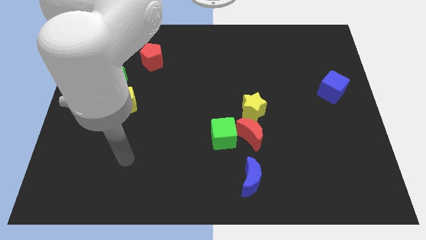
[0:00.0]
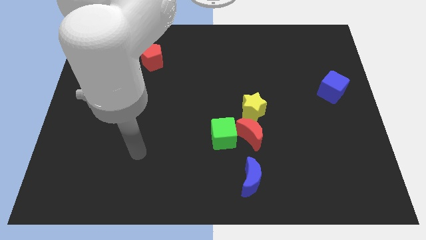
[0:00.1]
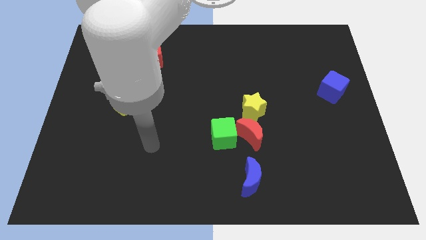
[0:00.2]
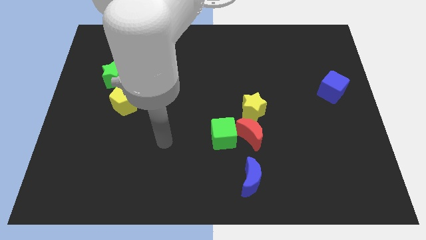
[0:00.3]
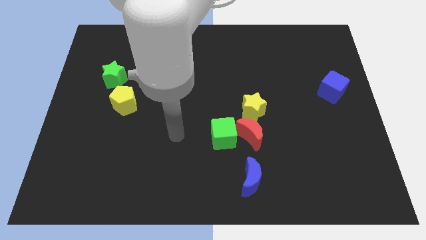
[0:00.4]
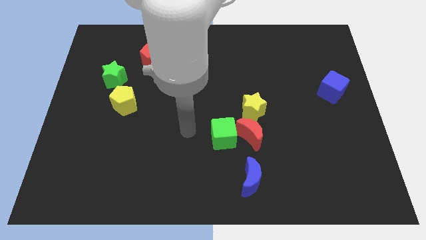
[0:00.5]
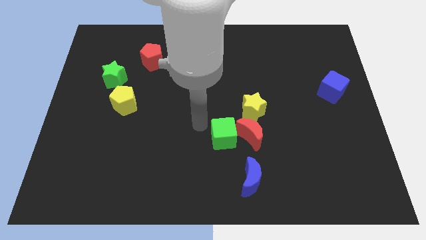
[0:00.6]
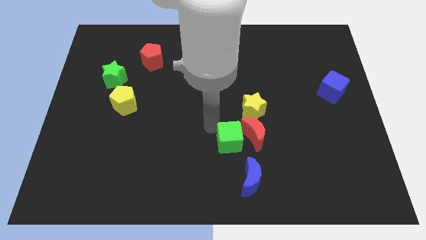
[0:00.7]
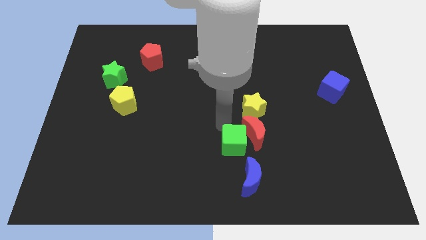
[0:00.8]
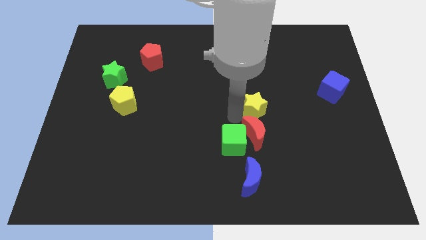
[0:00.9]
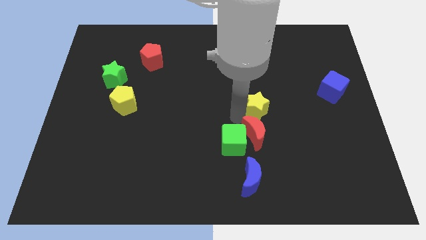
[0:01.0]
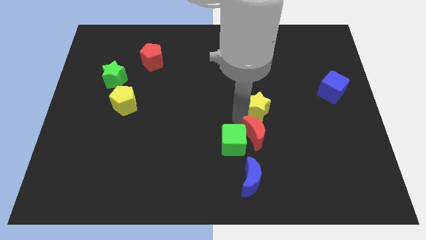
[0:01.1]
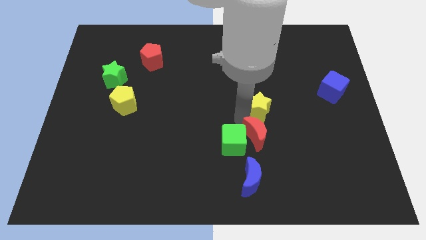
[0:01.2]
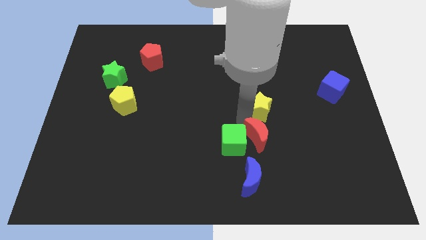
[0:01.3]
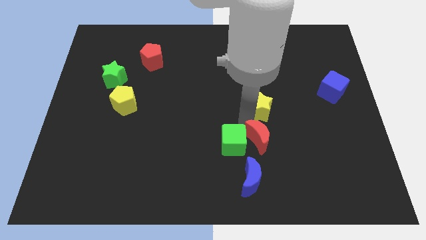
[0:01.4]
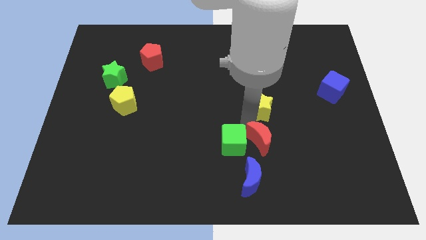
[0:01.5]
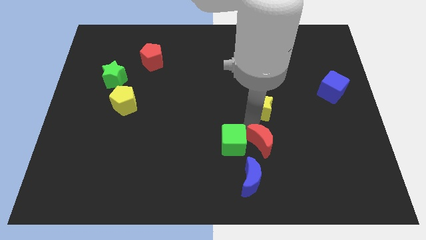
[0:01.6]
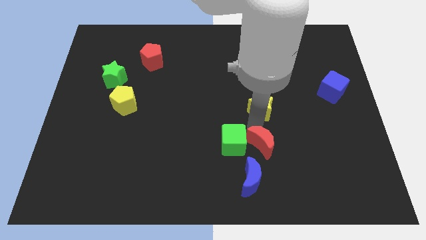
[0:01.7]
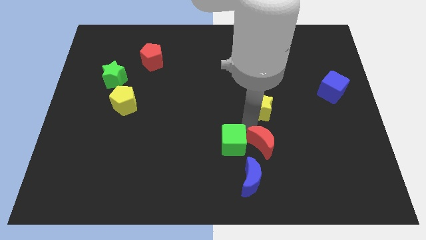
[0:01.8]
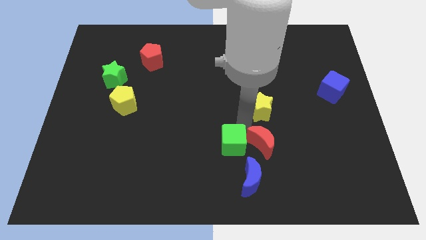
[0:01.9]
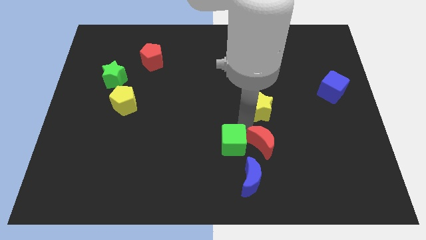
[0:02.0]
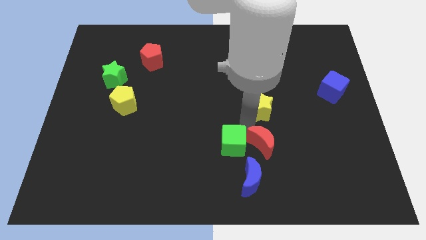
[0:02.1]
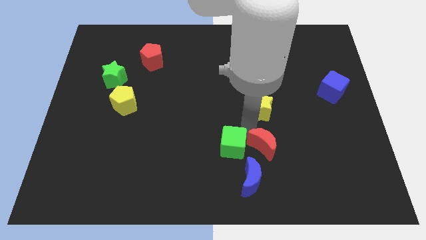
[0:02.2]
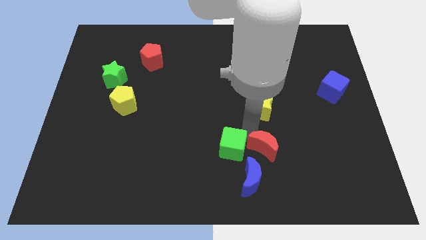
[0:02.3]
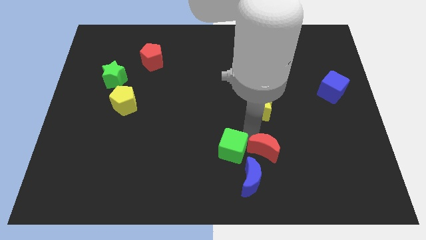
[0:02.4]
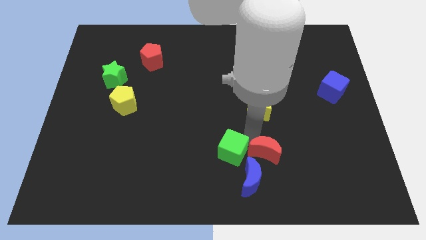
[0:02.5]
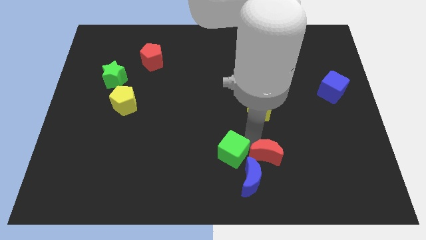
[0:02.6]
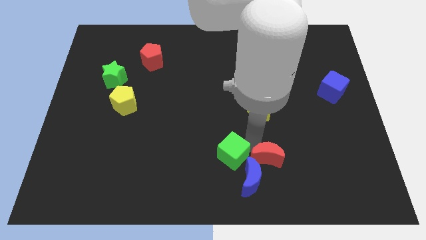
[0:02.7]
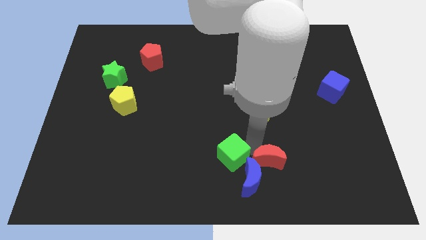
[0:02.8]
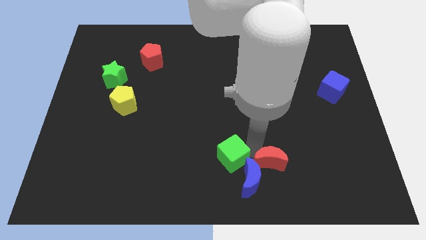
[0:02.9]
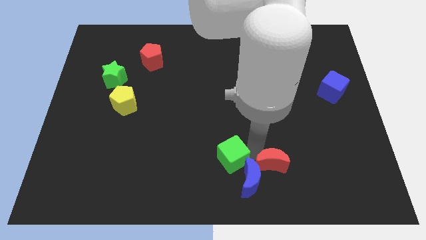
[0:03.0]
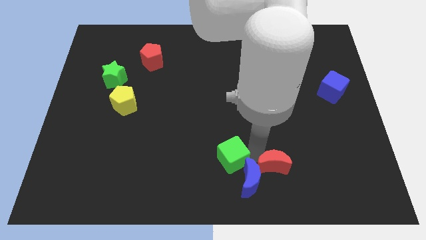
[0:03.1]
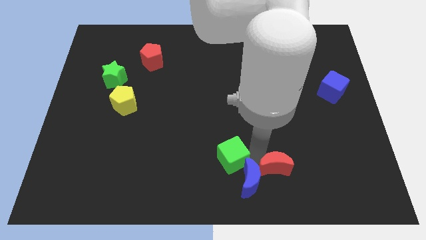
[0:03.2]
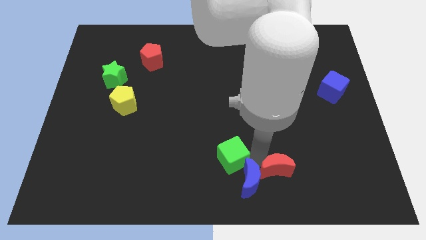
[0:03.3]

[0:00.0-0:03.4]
move the red moon away from the green cube and yellow star

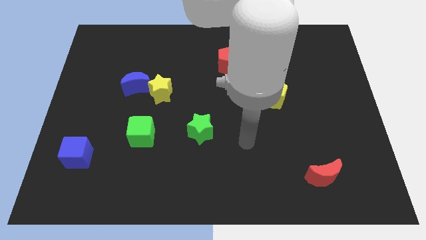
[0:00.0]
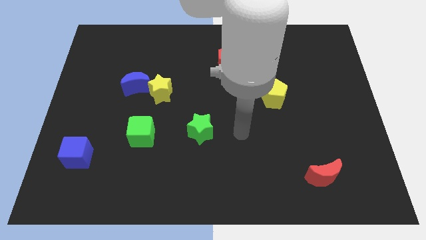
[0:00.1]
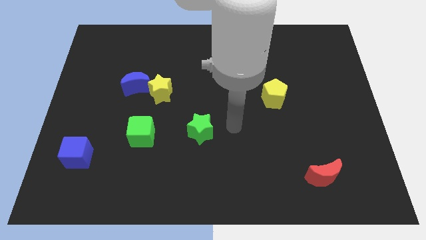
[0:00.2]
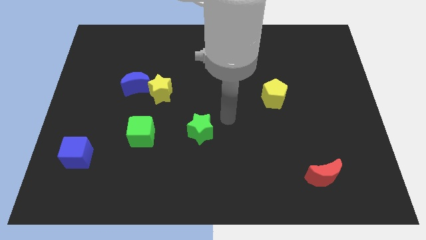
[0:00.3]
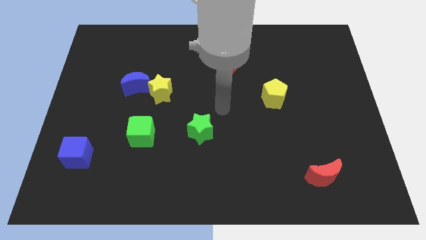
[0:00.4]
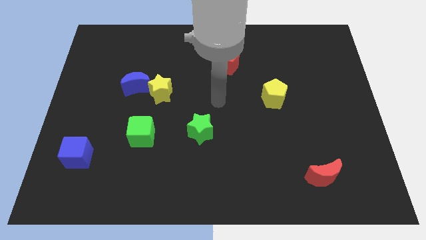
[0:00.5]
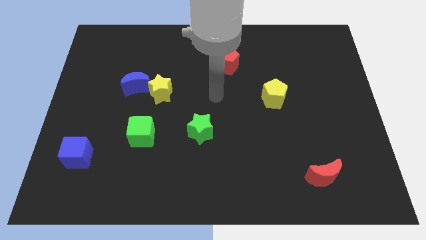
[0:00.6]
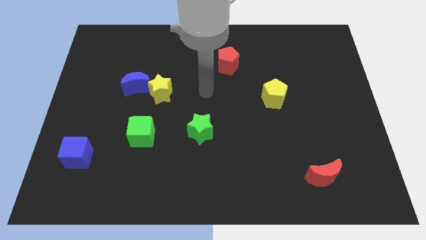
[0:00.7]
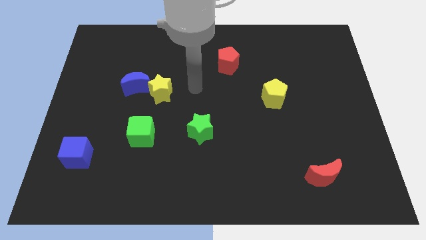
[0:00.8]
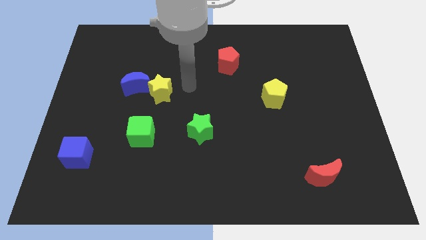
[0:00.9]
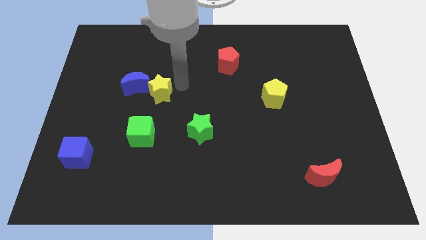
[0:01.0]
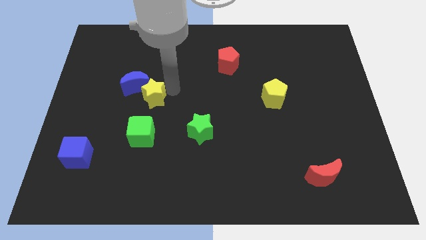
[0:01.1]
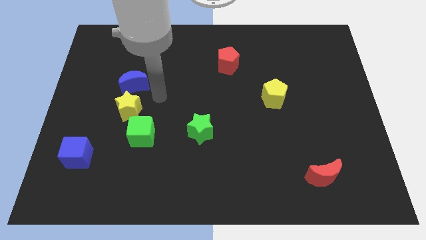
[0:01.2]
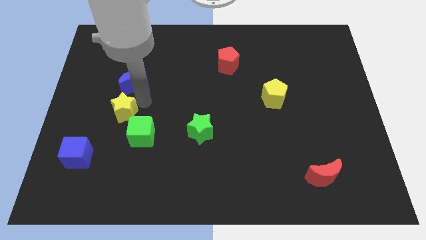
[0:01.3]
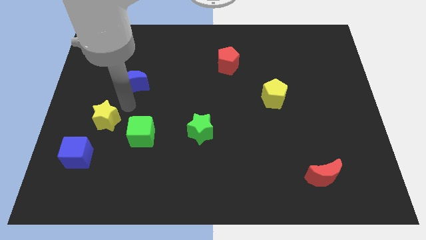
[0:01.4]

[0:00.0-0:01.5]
move the blue moon away from the yellow star

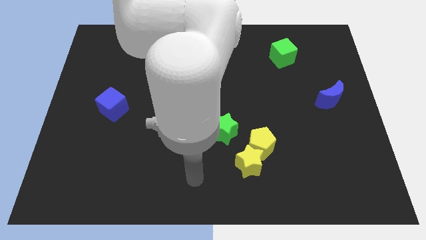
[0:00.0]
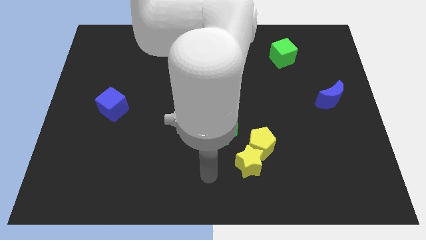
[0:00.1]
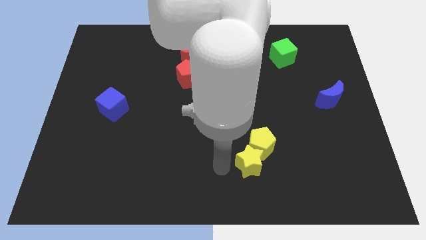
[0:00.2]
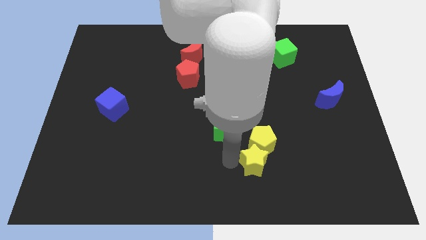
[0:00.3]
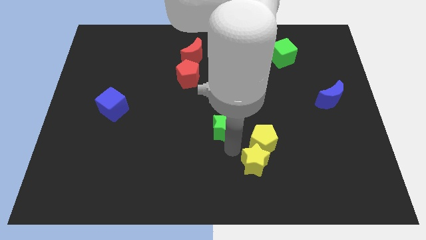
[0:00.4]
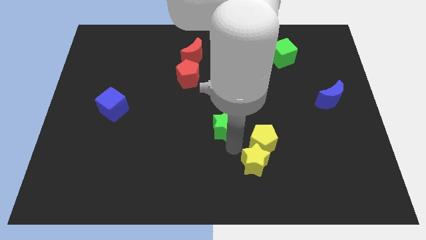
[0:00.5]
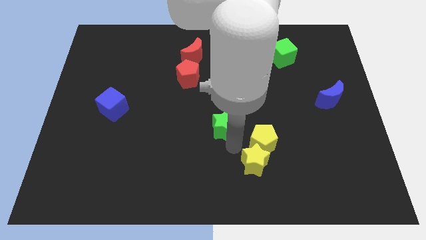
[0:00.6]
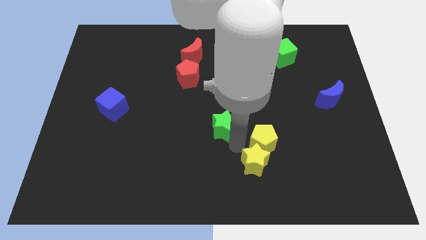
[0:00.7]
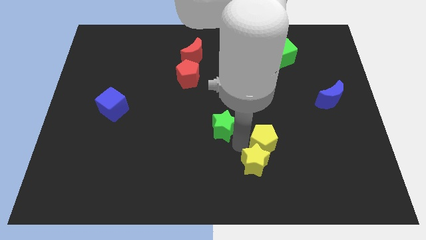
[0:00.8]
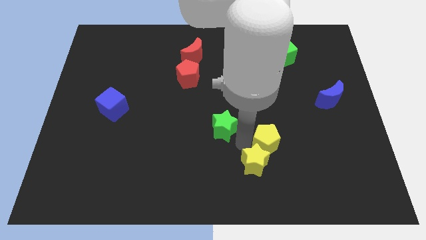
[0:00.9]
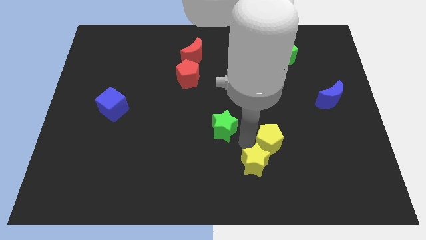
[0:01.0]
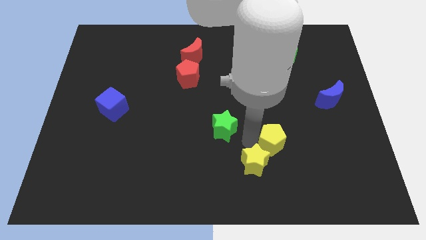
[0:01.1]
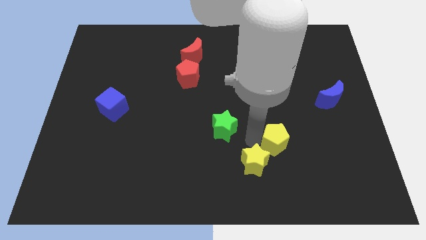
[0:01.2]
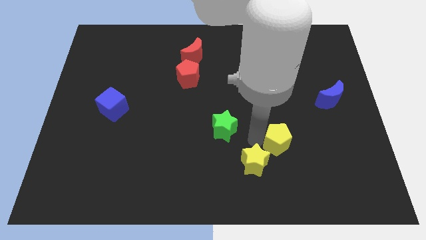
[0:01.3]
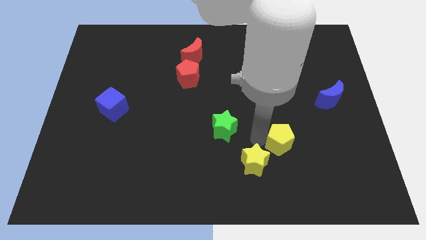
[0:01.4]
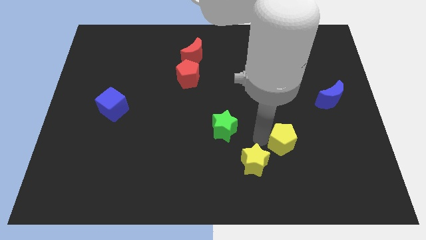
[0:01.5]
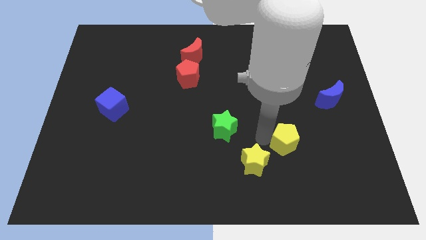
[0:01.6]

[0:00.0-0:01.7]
pull the yellow pentagon apart from the yellow star and green star

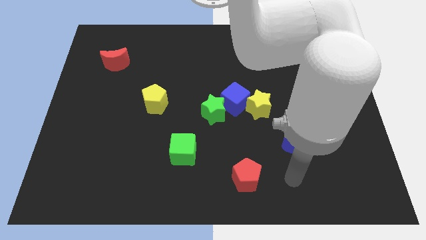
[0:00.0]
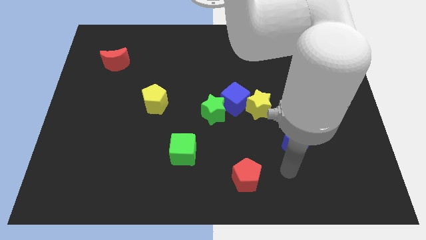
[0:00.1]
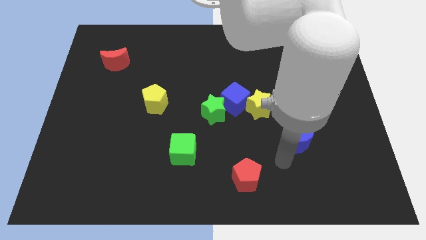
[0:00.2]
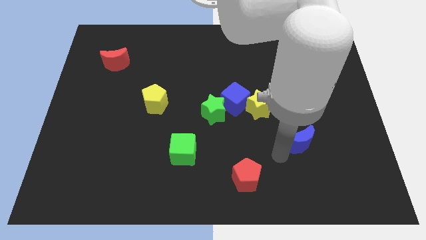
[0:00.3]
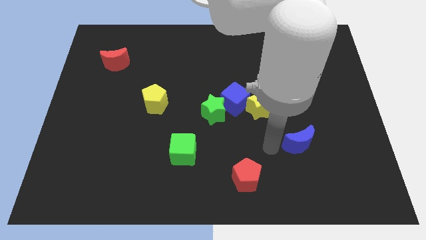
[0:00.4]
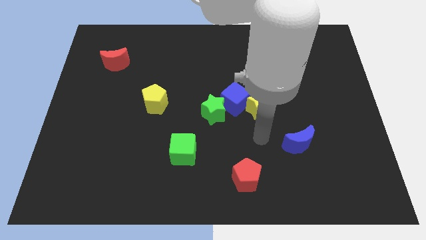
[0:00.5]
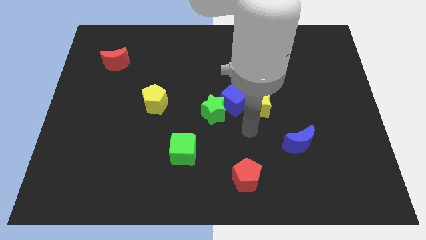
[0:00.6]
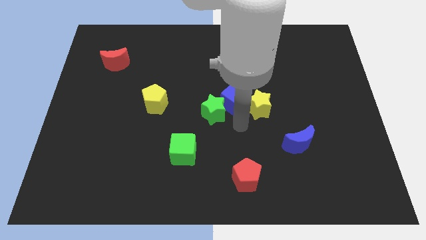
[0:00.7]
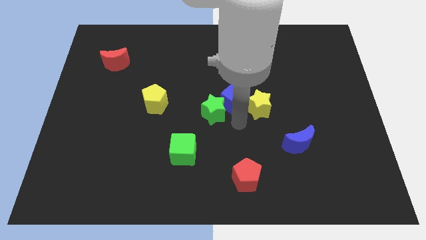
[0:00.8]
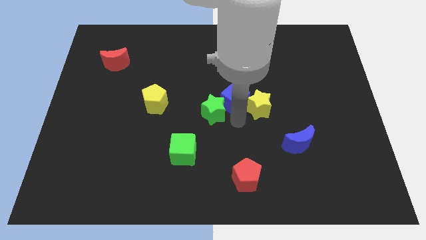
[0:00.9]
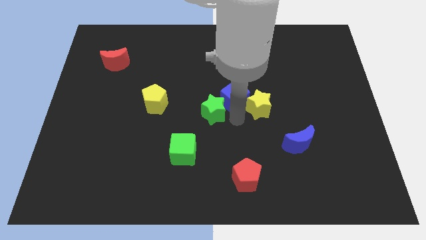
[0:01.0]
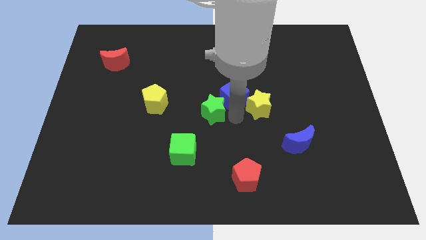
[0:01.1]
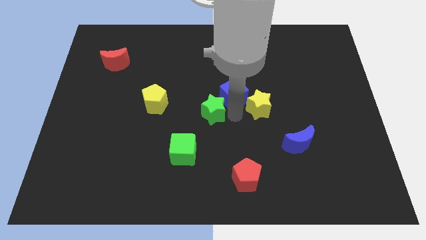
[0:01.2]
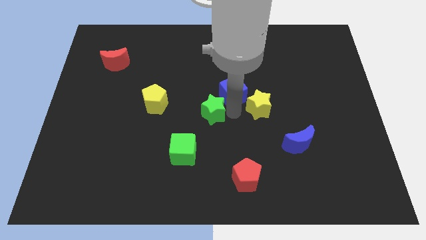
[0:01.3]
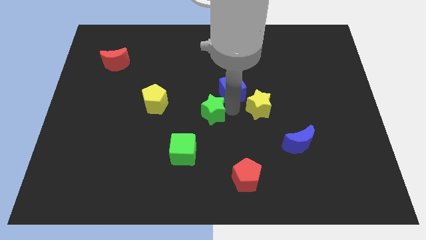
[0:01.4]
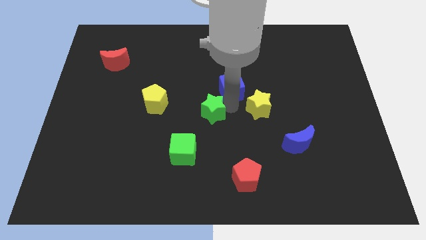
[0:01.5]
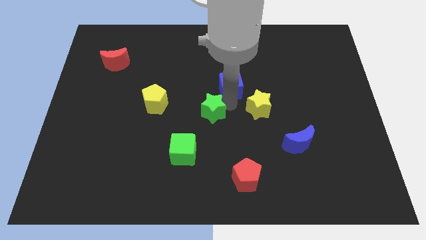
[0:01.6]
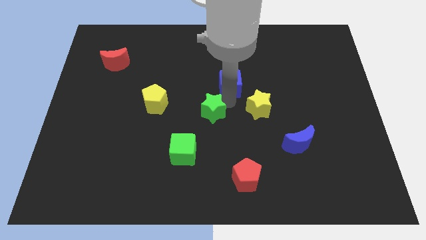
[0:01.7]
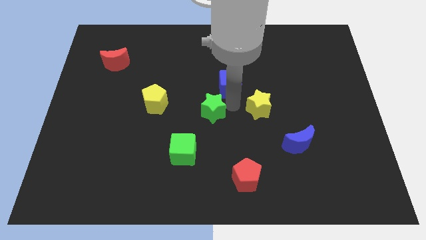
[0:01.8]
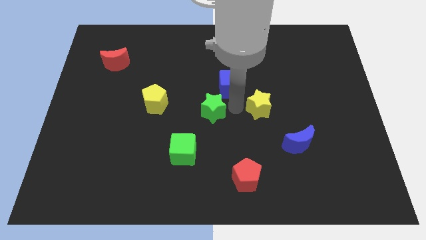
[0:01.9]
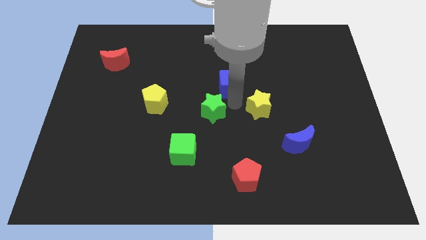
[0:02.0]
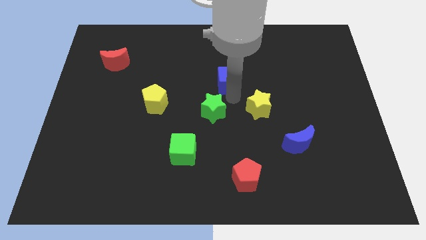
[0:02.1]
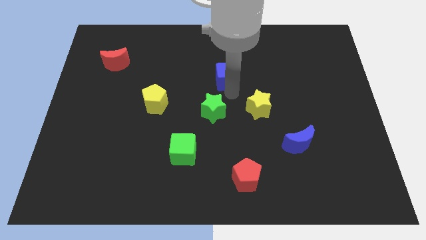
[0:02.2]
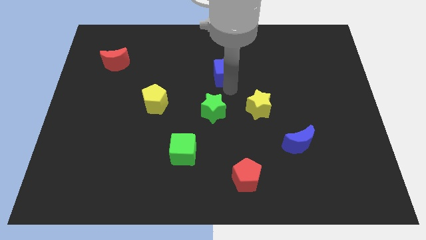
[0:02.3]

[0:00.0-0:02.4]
pull the blue cube apart from the green star and yellow star

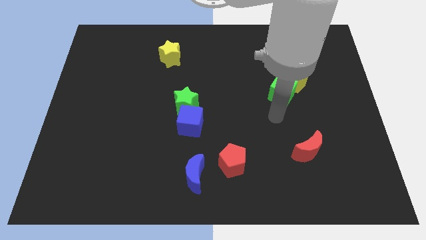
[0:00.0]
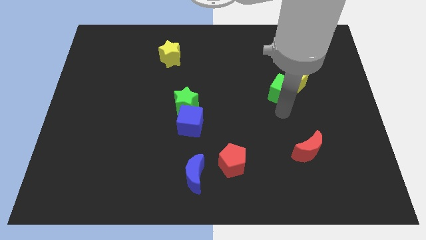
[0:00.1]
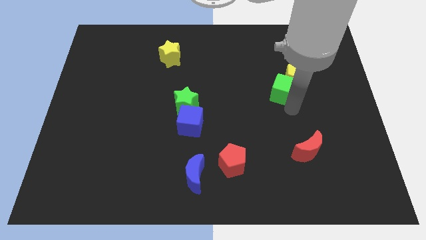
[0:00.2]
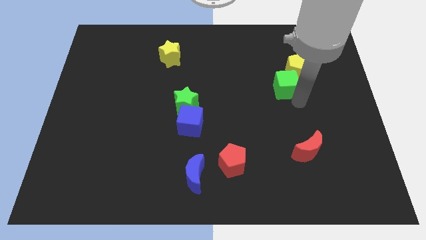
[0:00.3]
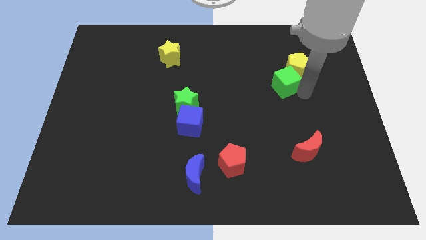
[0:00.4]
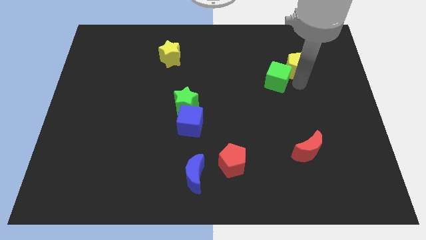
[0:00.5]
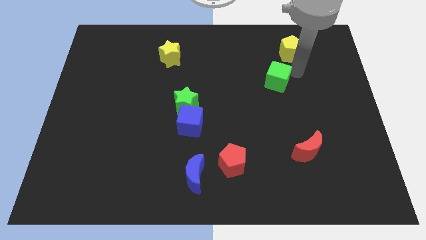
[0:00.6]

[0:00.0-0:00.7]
move the green cube away from the yellow pentagon
